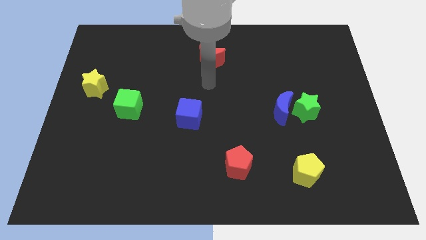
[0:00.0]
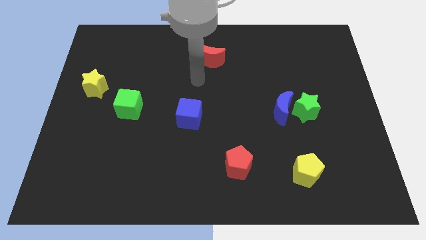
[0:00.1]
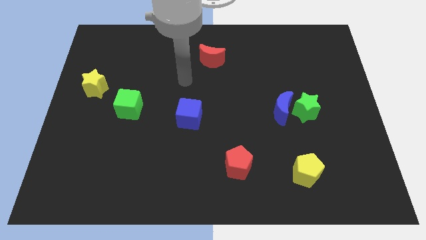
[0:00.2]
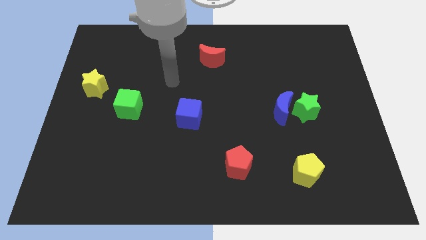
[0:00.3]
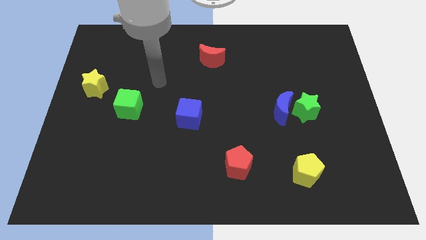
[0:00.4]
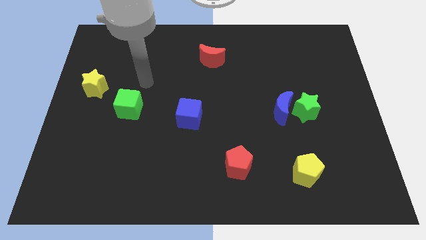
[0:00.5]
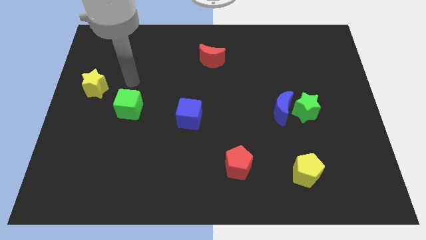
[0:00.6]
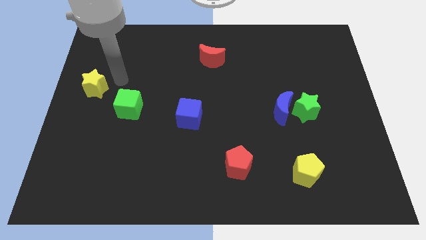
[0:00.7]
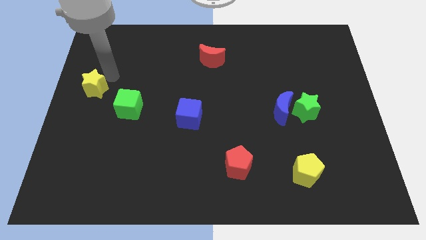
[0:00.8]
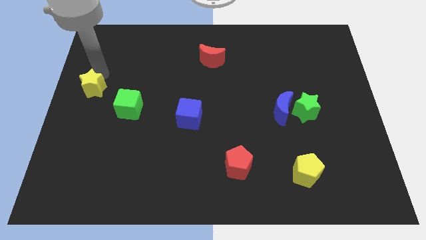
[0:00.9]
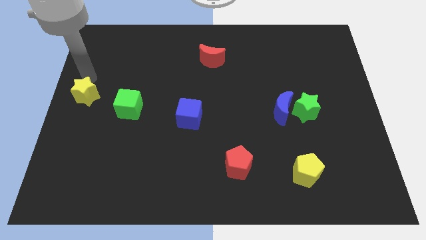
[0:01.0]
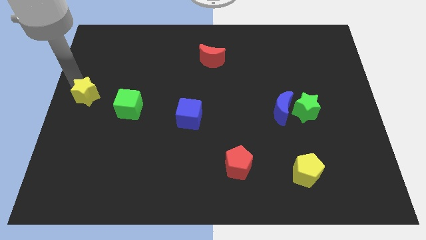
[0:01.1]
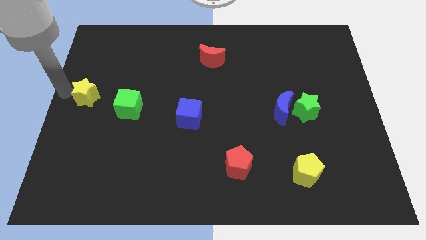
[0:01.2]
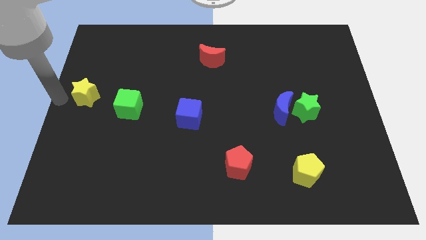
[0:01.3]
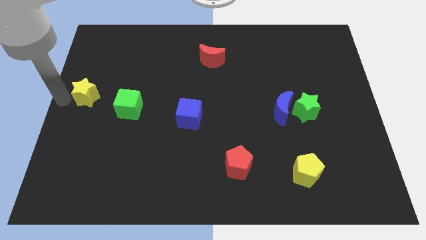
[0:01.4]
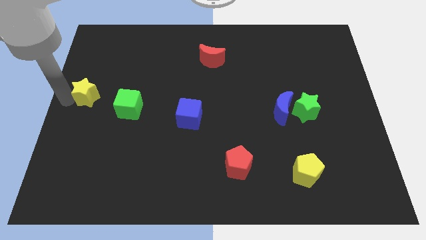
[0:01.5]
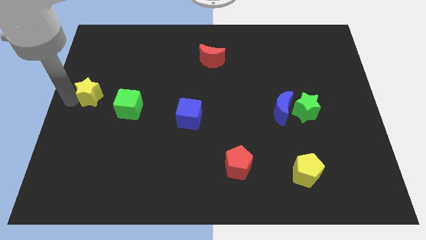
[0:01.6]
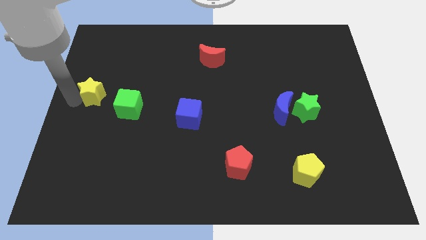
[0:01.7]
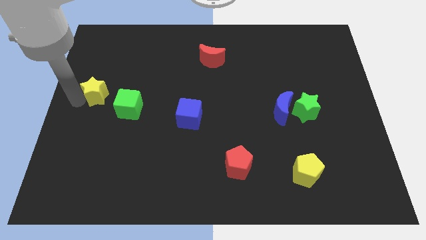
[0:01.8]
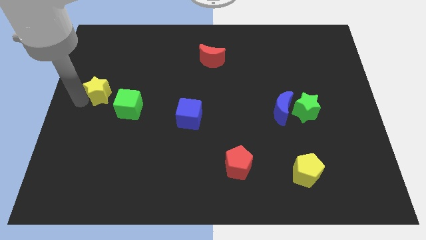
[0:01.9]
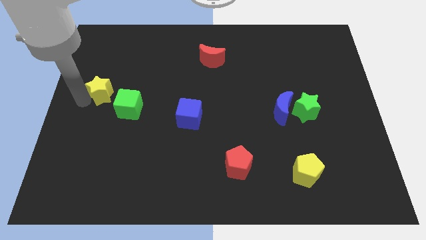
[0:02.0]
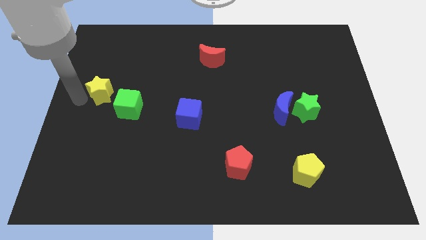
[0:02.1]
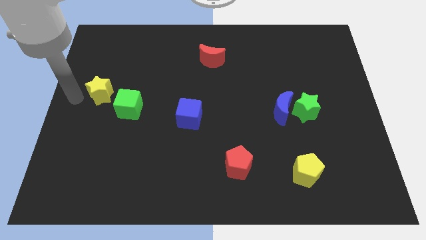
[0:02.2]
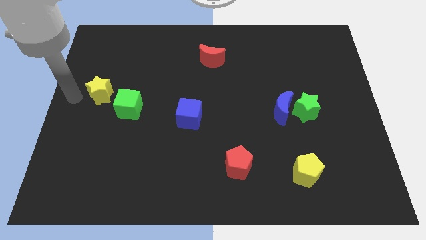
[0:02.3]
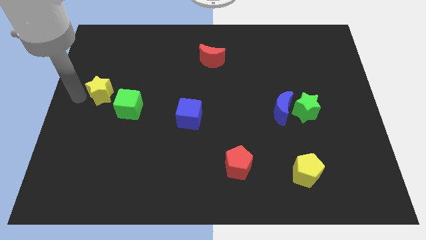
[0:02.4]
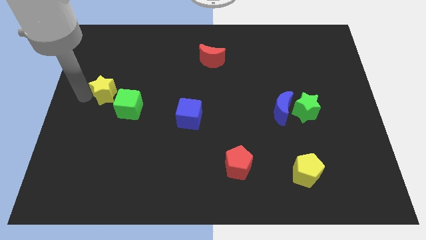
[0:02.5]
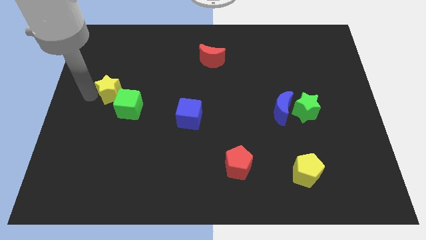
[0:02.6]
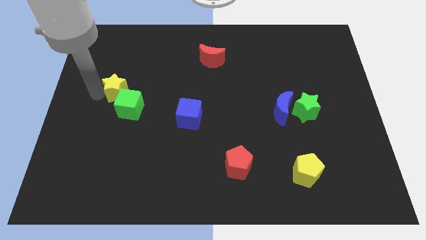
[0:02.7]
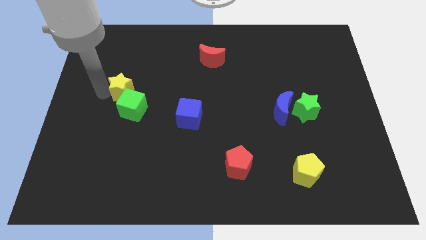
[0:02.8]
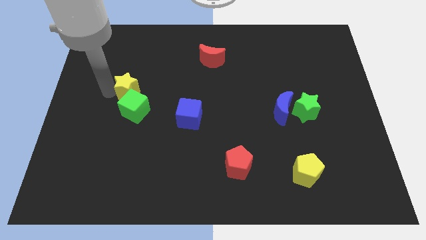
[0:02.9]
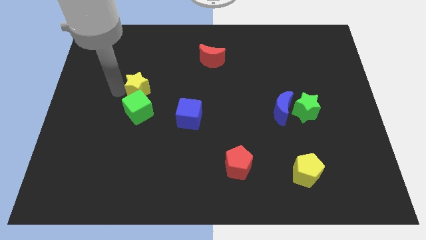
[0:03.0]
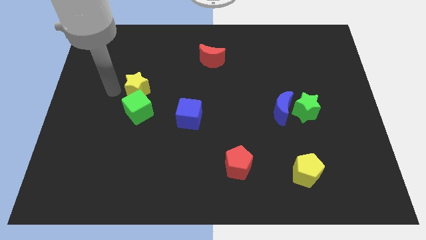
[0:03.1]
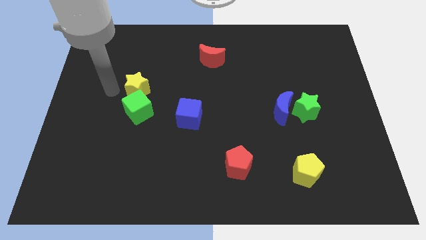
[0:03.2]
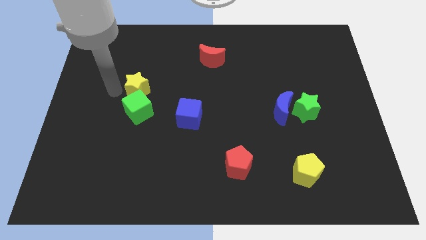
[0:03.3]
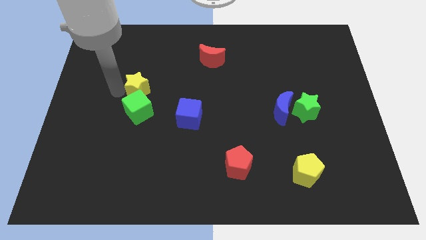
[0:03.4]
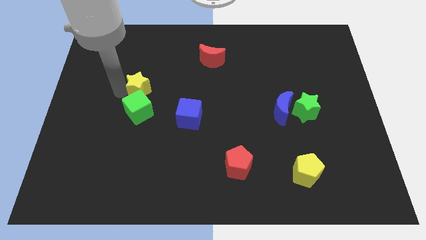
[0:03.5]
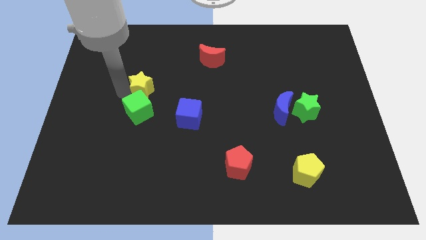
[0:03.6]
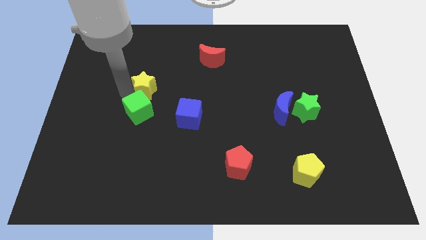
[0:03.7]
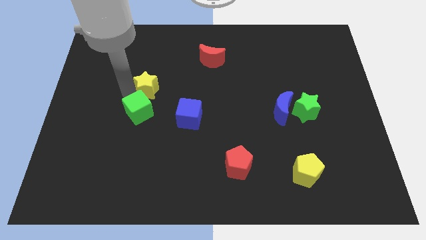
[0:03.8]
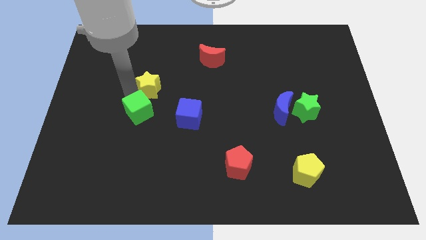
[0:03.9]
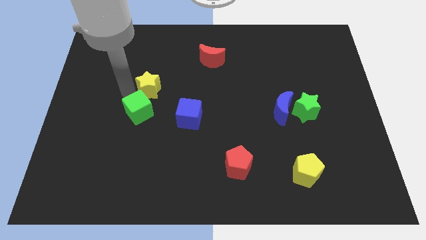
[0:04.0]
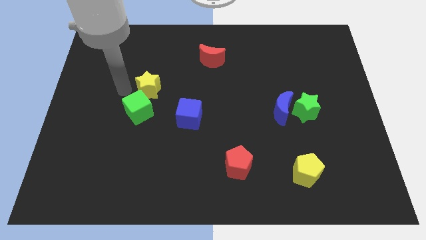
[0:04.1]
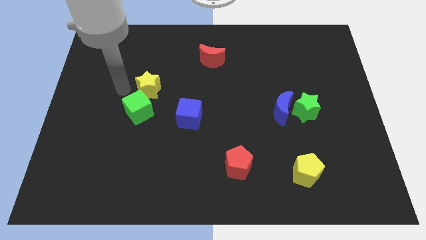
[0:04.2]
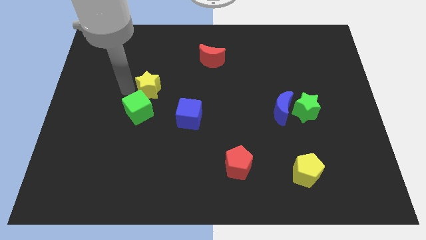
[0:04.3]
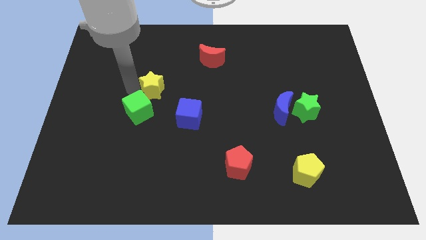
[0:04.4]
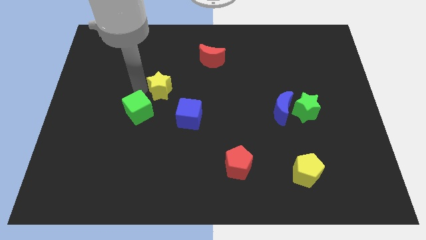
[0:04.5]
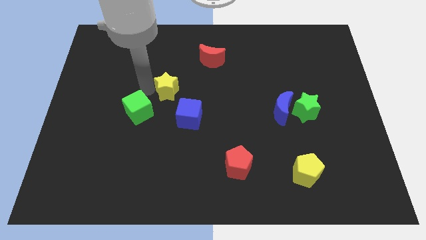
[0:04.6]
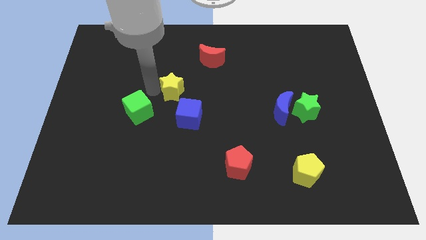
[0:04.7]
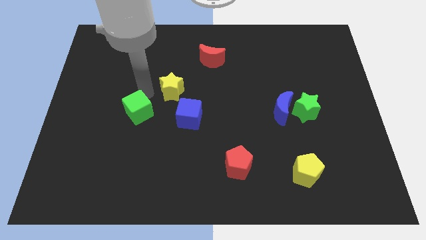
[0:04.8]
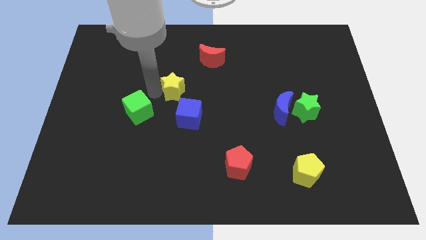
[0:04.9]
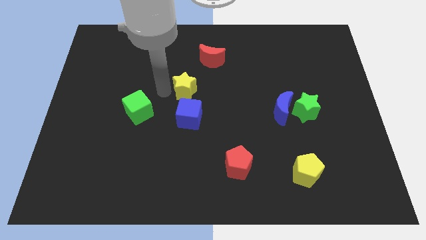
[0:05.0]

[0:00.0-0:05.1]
move the yellow star right

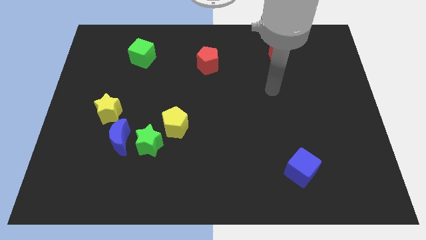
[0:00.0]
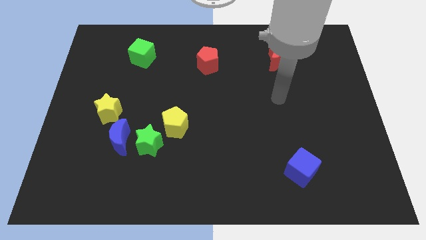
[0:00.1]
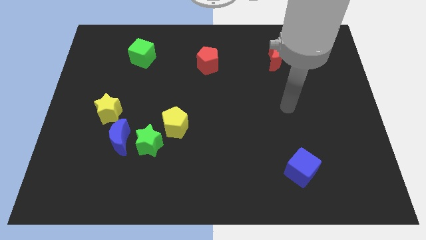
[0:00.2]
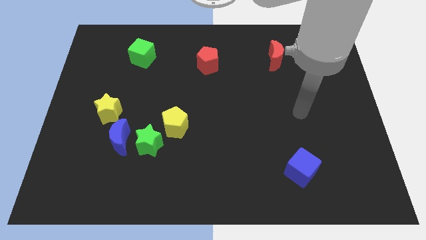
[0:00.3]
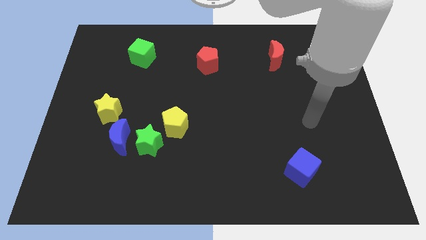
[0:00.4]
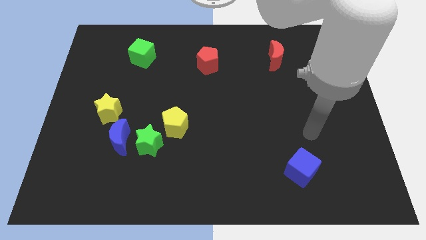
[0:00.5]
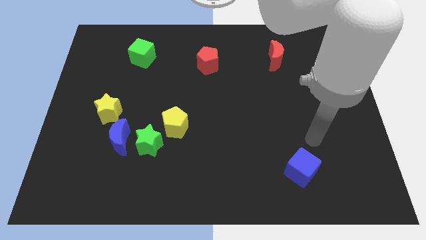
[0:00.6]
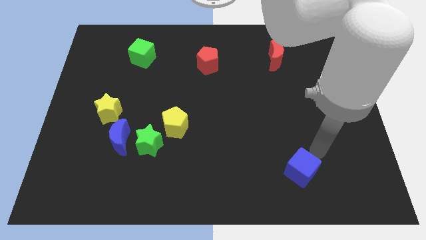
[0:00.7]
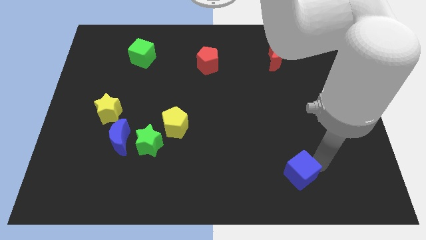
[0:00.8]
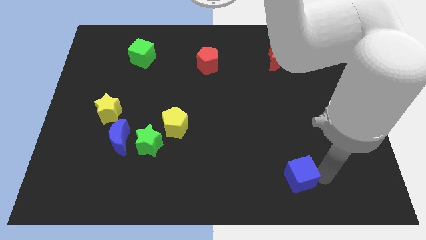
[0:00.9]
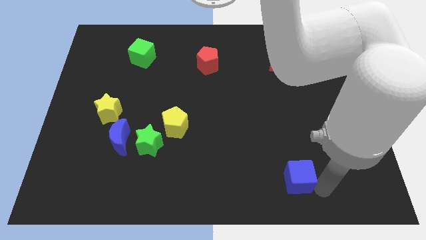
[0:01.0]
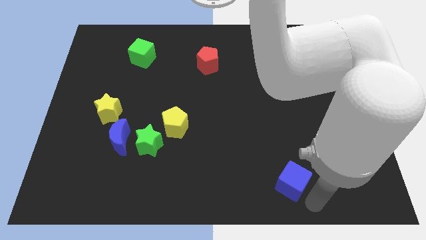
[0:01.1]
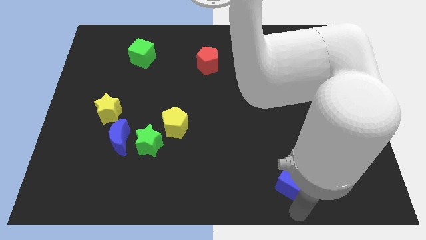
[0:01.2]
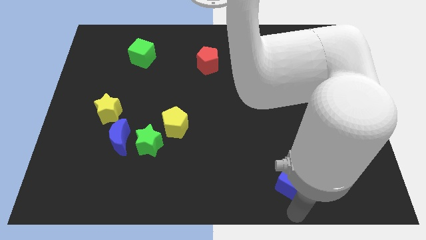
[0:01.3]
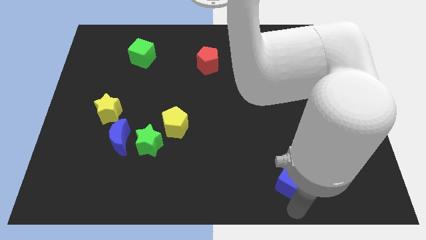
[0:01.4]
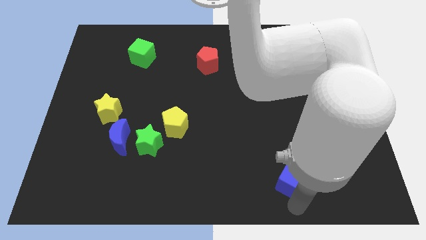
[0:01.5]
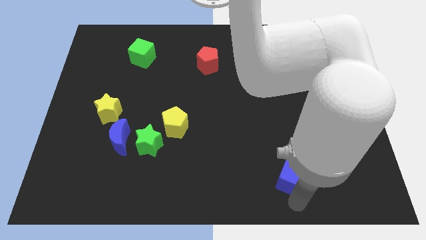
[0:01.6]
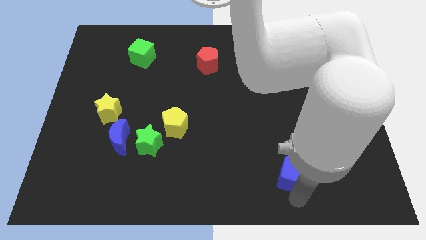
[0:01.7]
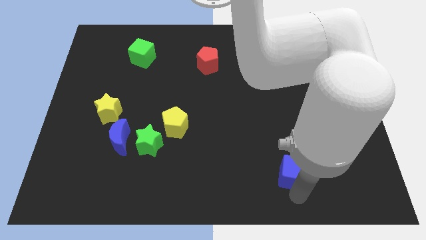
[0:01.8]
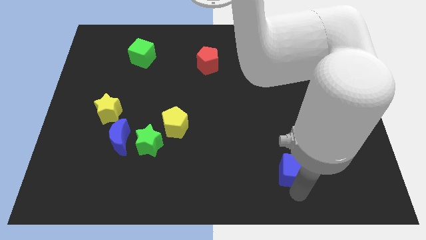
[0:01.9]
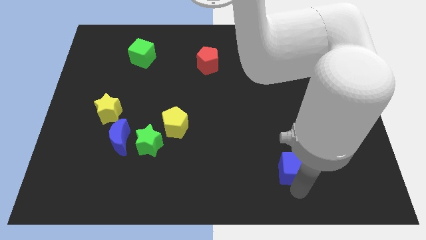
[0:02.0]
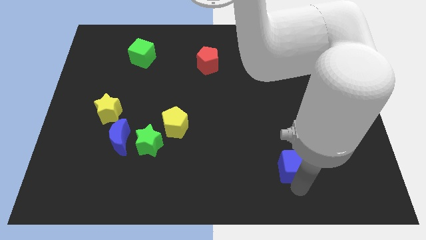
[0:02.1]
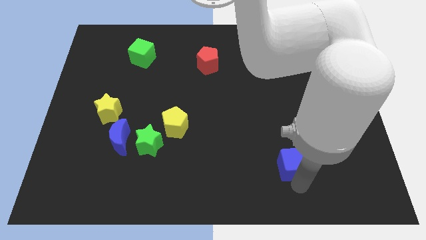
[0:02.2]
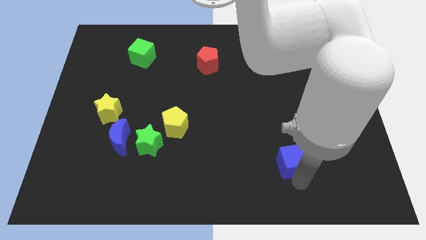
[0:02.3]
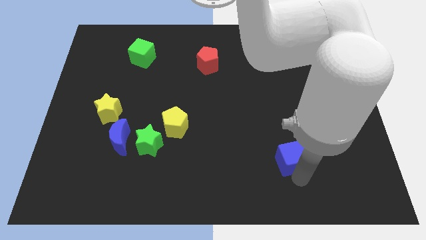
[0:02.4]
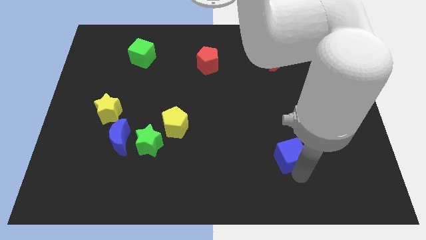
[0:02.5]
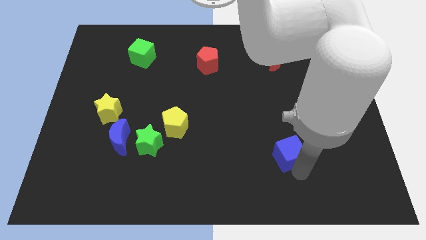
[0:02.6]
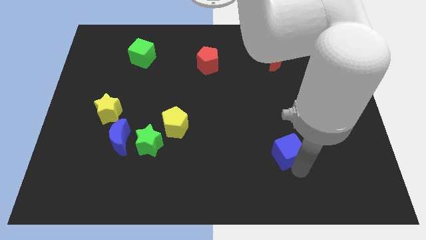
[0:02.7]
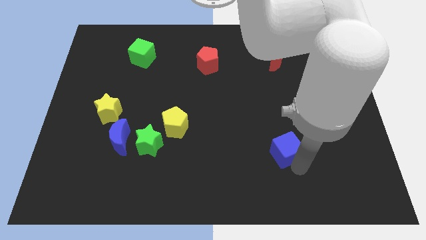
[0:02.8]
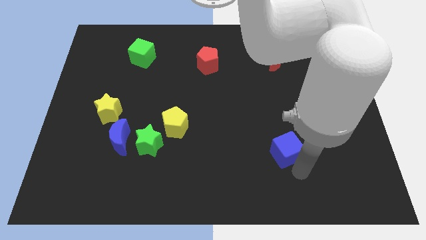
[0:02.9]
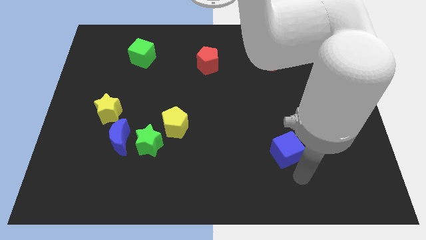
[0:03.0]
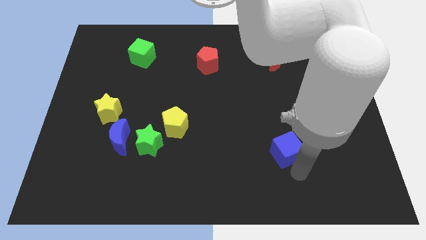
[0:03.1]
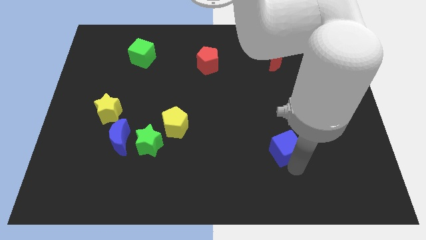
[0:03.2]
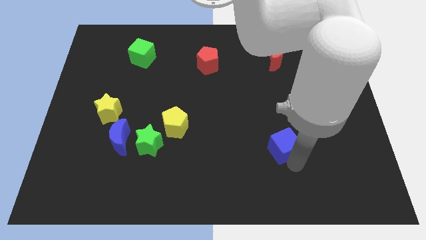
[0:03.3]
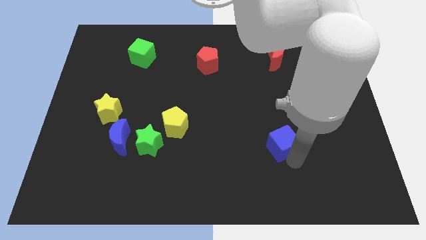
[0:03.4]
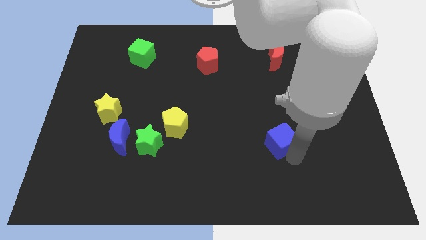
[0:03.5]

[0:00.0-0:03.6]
move the blue cube up and left a bit
